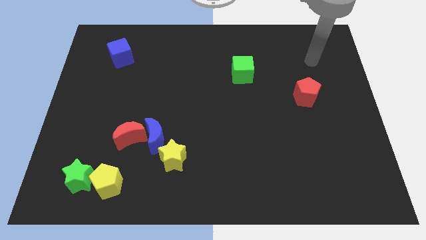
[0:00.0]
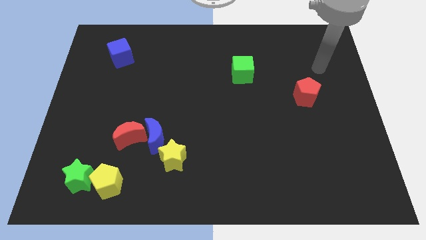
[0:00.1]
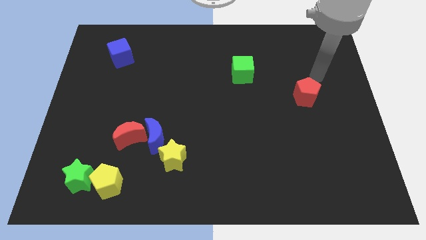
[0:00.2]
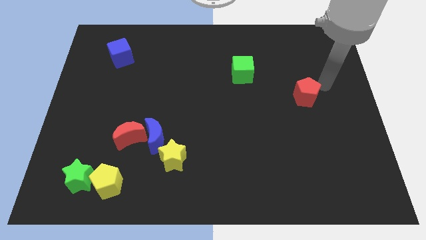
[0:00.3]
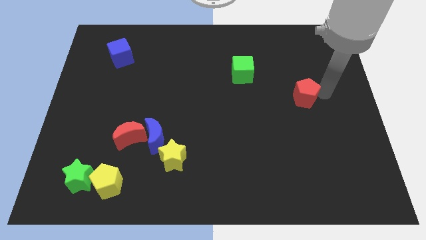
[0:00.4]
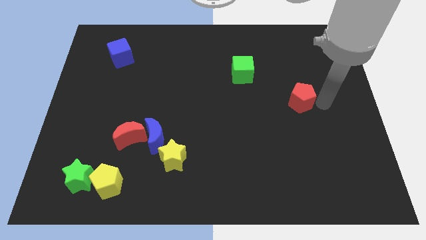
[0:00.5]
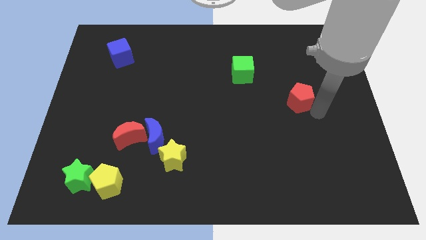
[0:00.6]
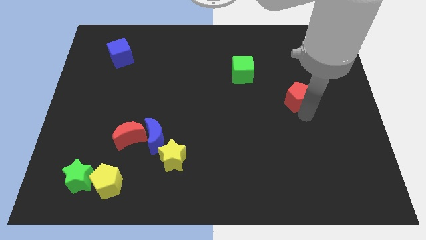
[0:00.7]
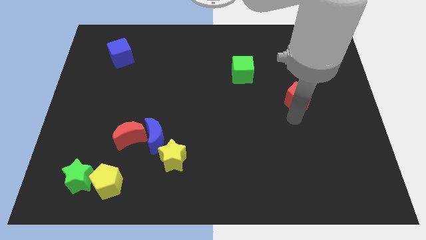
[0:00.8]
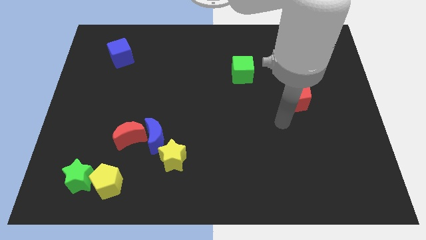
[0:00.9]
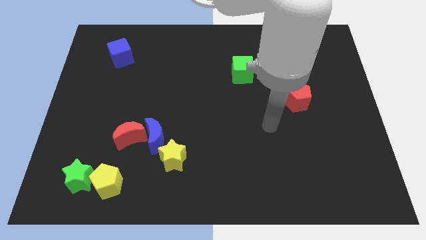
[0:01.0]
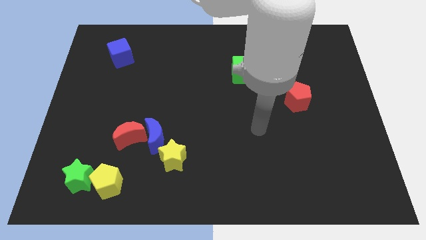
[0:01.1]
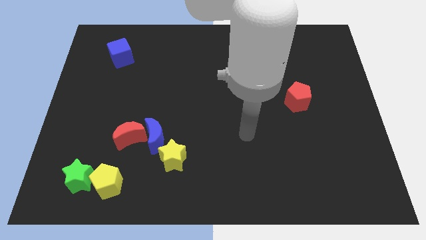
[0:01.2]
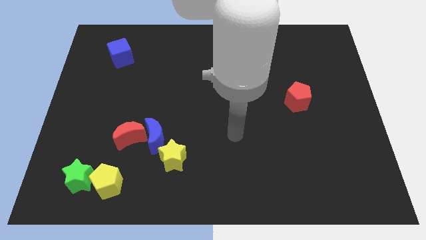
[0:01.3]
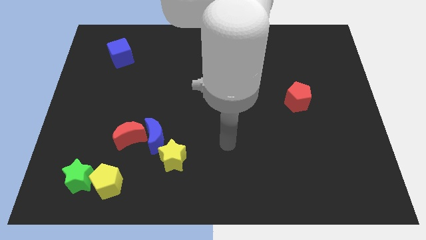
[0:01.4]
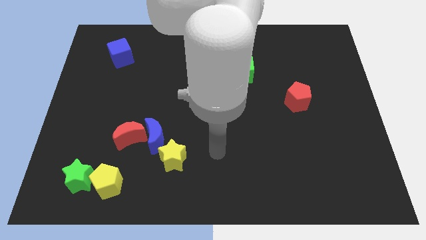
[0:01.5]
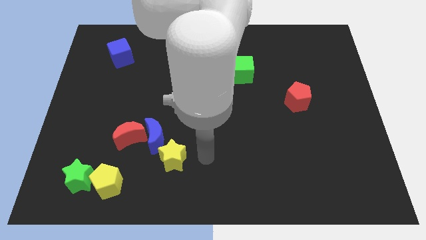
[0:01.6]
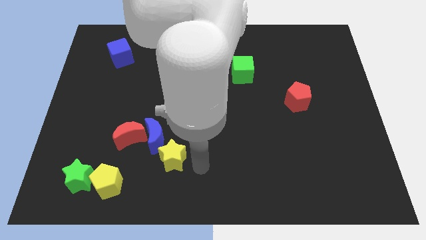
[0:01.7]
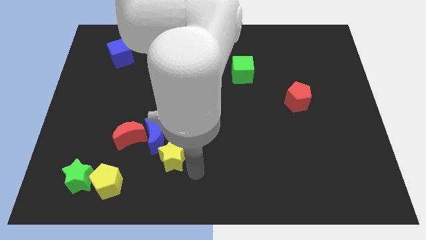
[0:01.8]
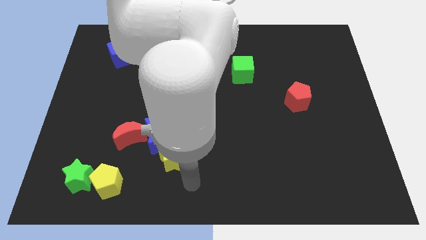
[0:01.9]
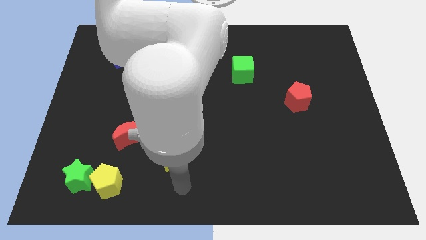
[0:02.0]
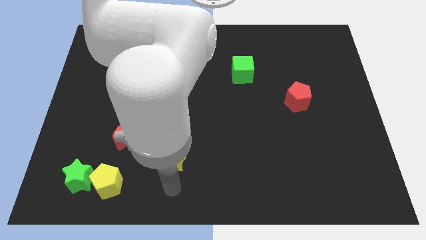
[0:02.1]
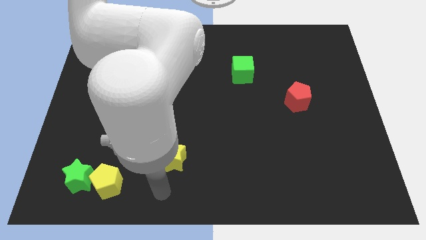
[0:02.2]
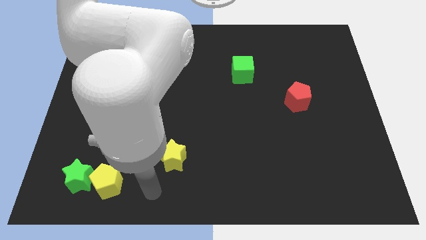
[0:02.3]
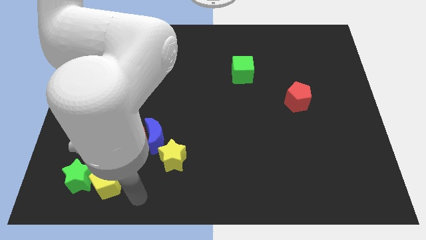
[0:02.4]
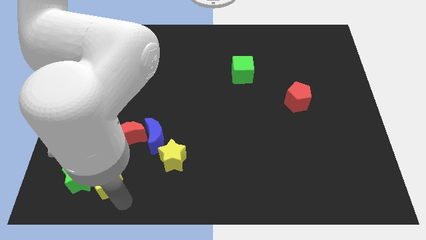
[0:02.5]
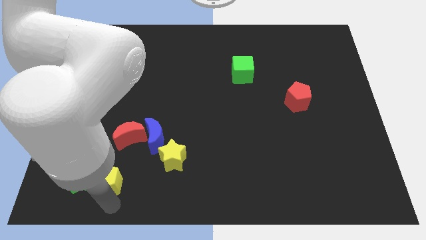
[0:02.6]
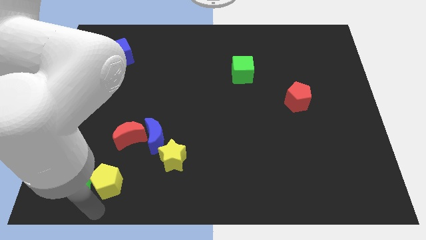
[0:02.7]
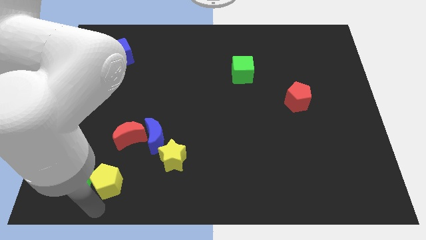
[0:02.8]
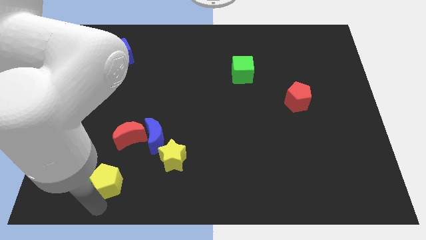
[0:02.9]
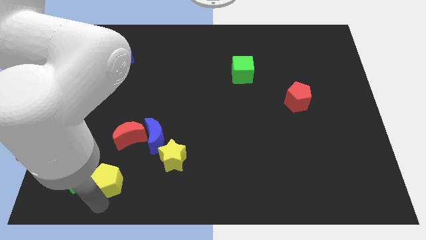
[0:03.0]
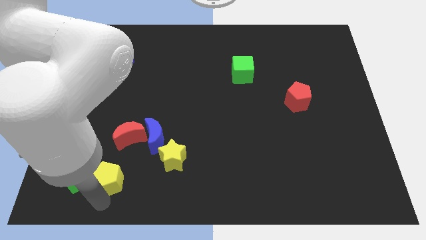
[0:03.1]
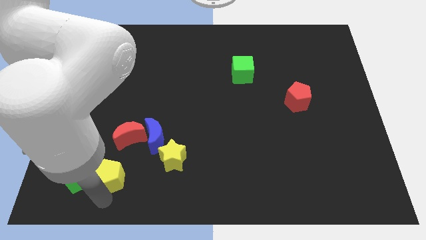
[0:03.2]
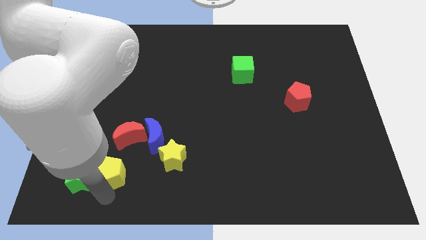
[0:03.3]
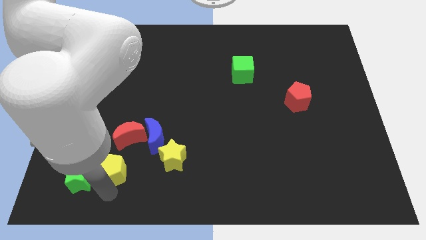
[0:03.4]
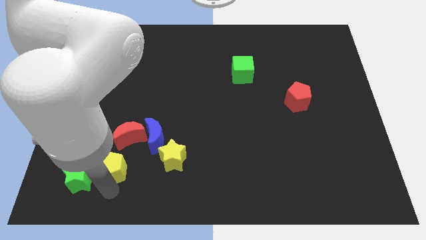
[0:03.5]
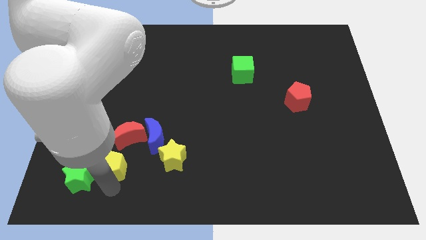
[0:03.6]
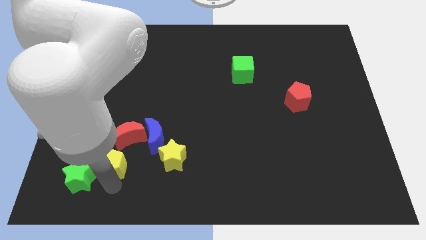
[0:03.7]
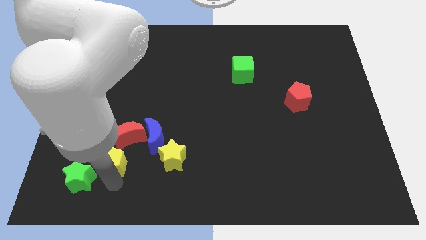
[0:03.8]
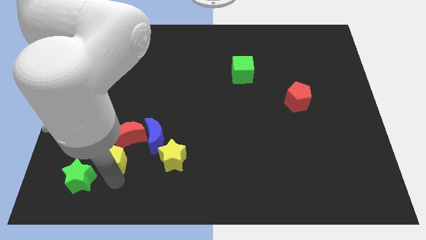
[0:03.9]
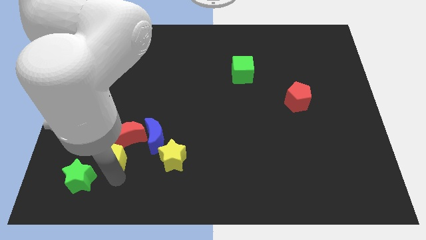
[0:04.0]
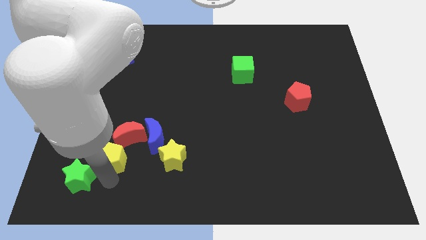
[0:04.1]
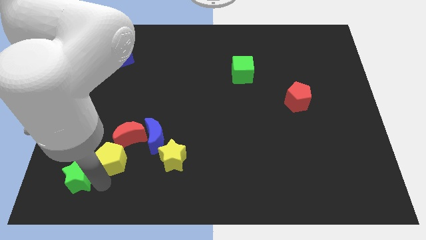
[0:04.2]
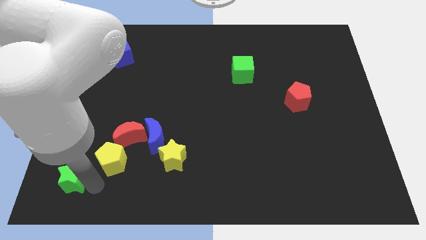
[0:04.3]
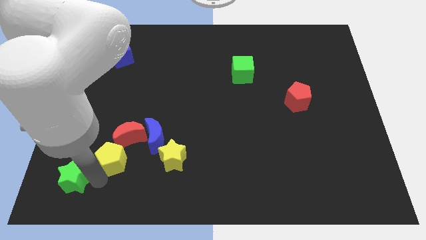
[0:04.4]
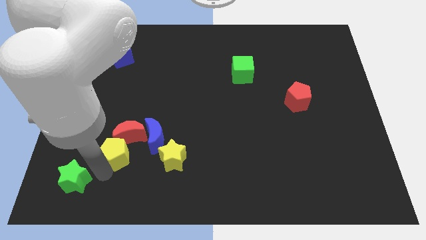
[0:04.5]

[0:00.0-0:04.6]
slide the yellow pentagon close to the red moon

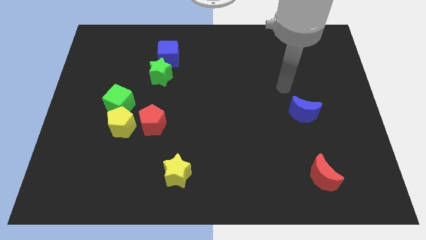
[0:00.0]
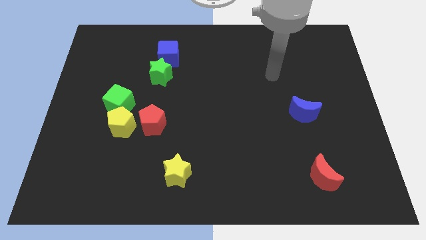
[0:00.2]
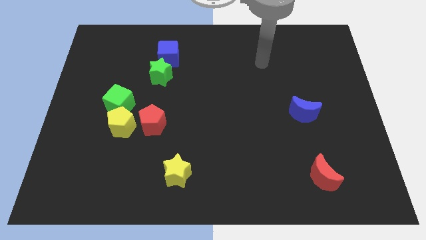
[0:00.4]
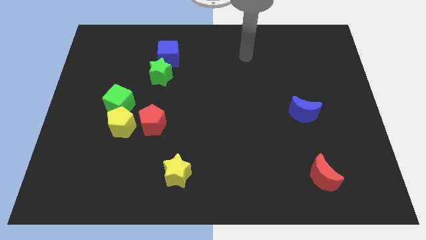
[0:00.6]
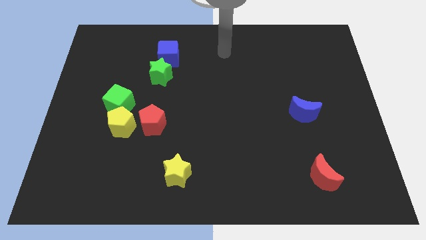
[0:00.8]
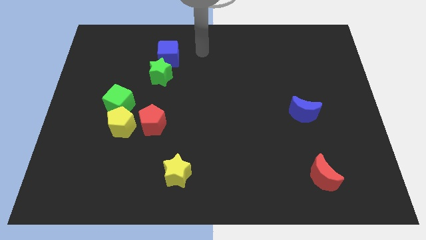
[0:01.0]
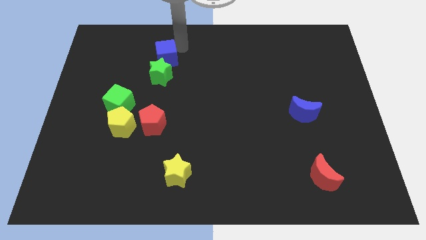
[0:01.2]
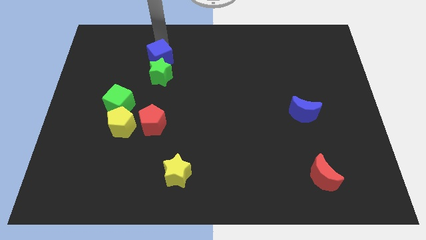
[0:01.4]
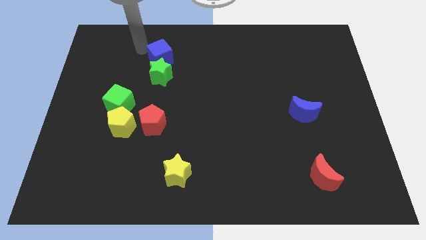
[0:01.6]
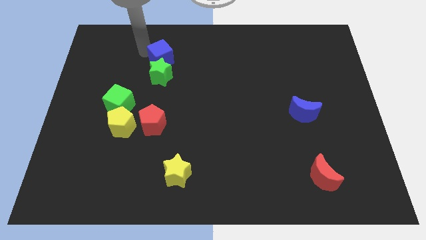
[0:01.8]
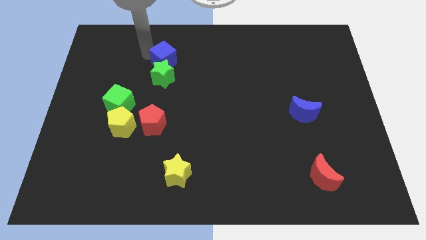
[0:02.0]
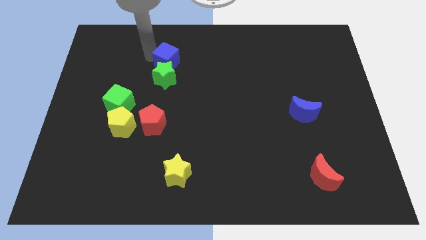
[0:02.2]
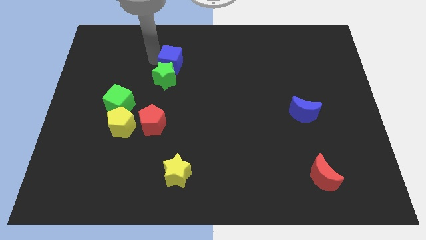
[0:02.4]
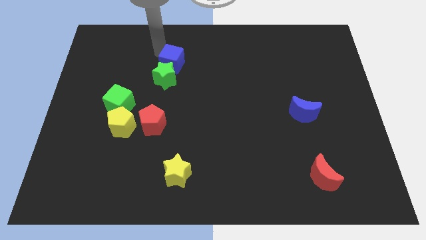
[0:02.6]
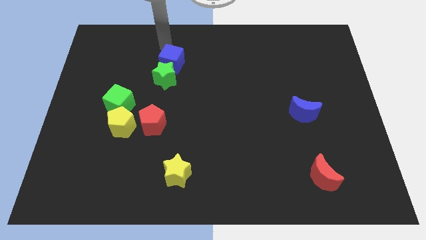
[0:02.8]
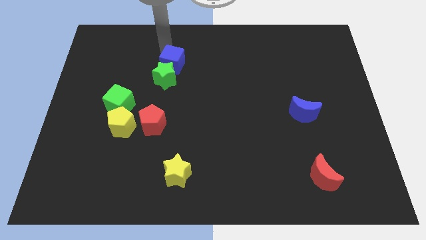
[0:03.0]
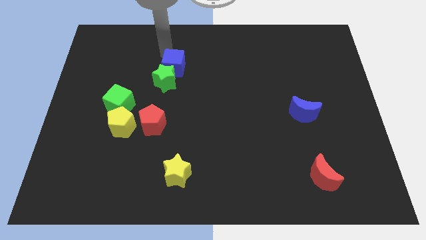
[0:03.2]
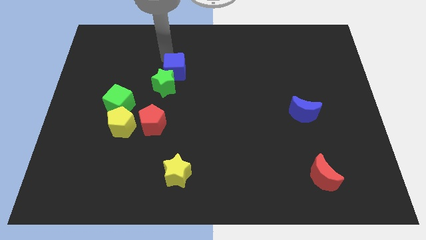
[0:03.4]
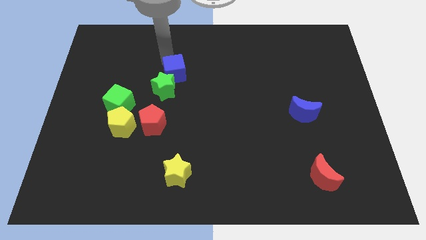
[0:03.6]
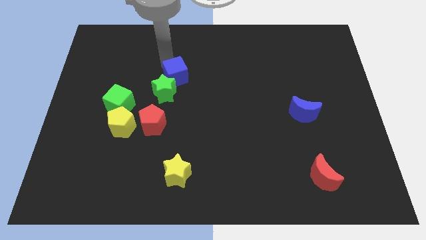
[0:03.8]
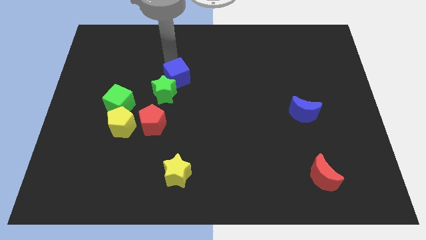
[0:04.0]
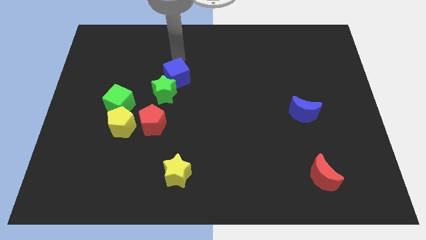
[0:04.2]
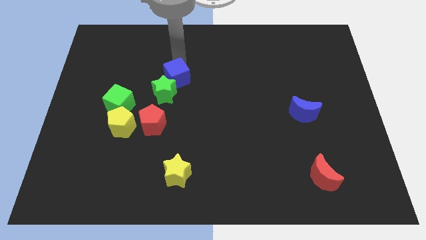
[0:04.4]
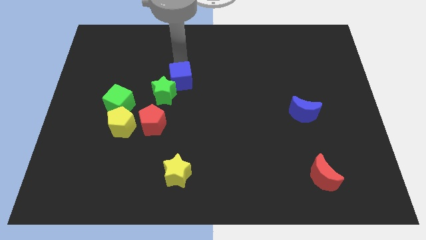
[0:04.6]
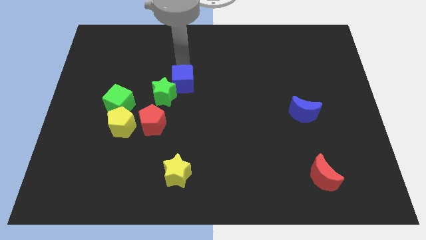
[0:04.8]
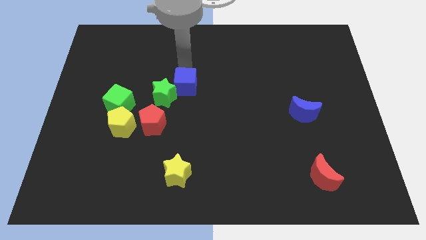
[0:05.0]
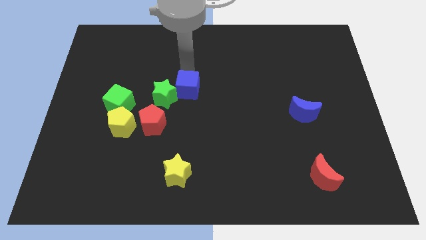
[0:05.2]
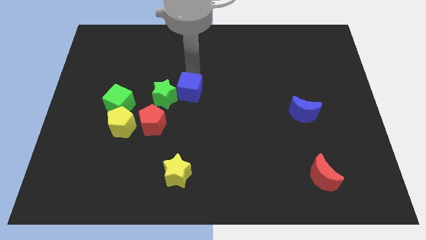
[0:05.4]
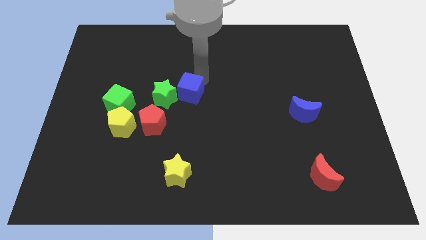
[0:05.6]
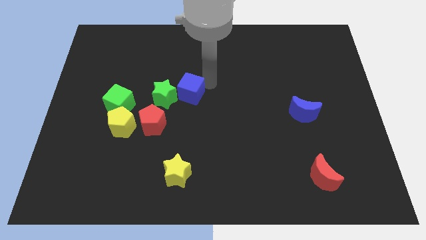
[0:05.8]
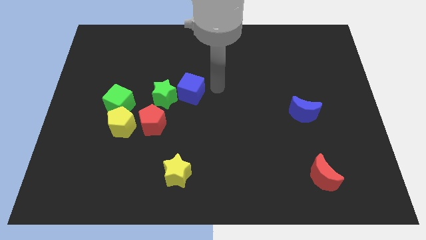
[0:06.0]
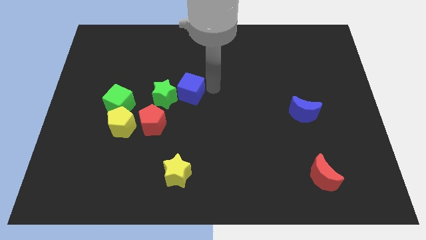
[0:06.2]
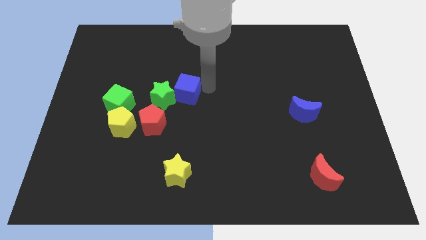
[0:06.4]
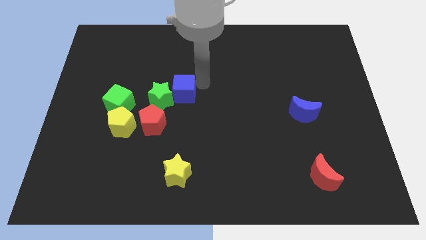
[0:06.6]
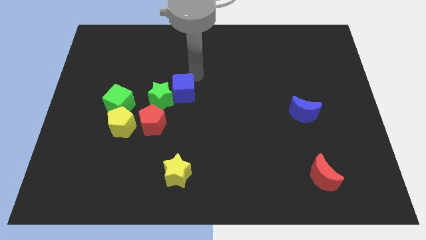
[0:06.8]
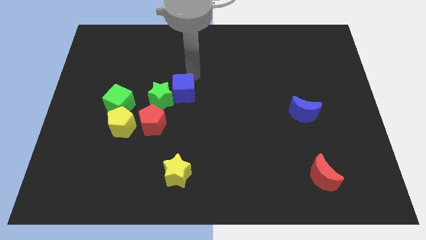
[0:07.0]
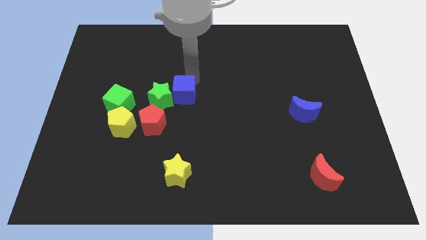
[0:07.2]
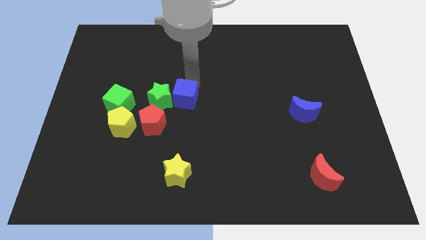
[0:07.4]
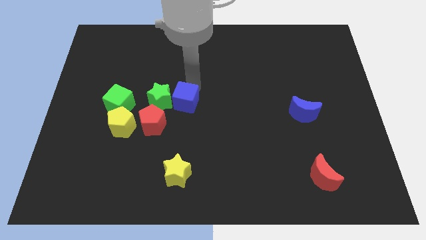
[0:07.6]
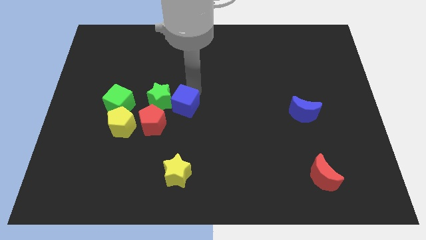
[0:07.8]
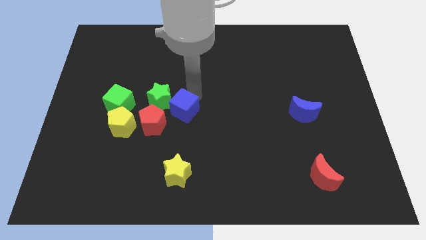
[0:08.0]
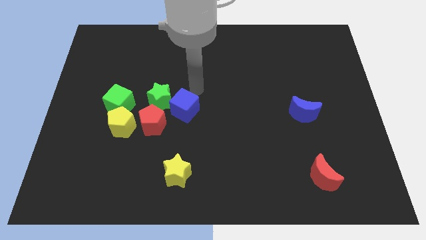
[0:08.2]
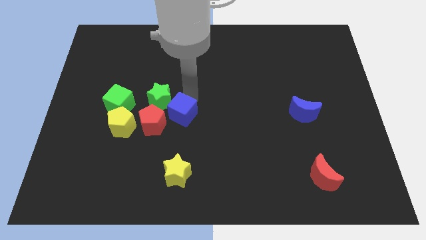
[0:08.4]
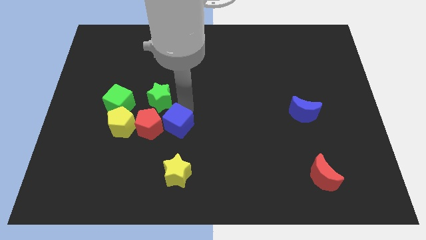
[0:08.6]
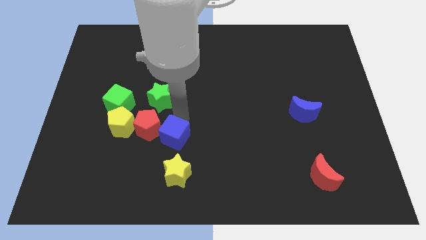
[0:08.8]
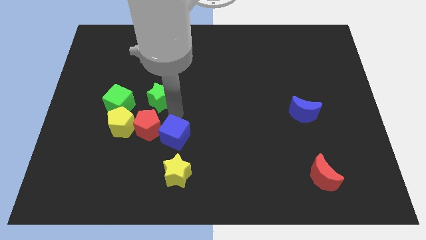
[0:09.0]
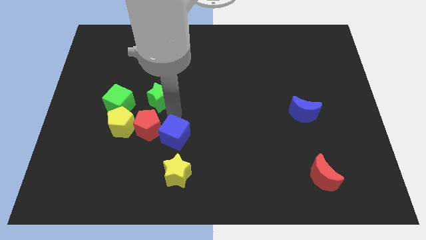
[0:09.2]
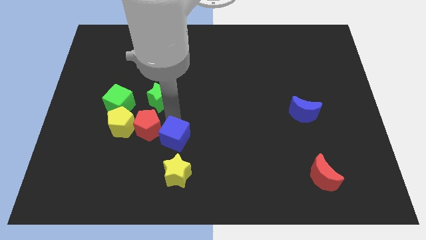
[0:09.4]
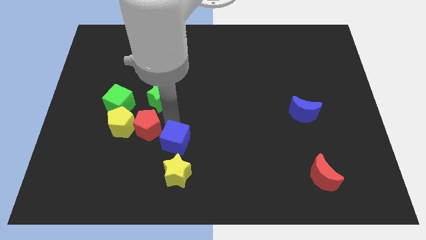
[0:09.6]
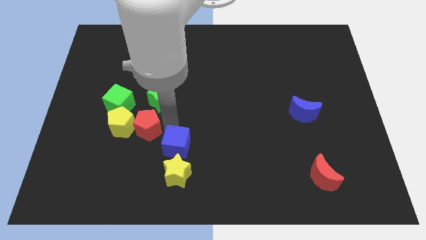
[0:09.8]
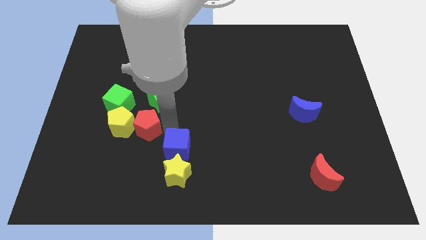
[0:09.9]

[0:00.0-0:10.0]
put the blue cube towards the yellow star
